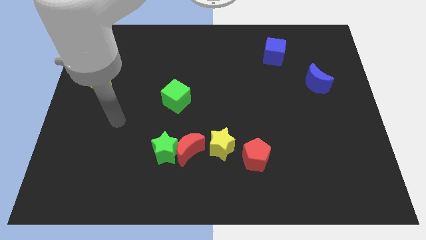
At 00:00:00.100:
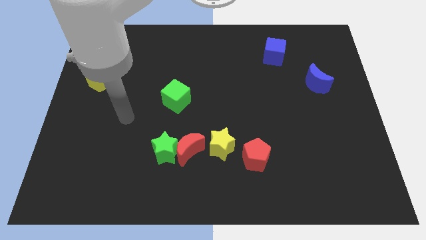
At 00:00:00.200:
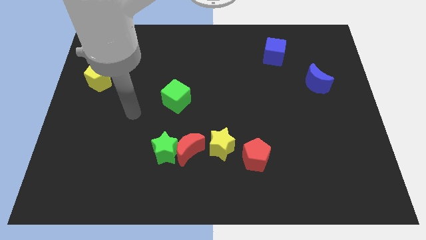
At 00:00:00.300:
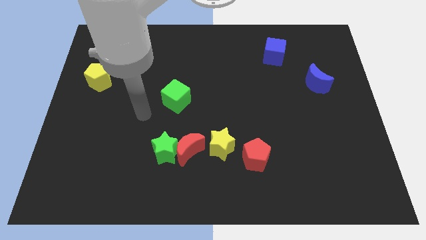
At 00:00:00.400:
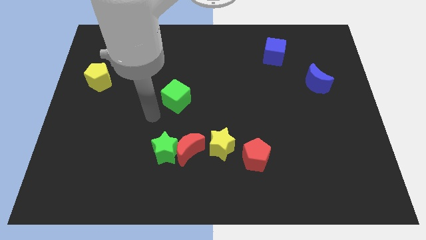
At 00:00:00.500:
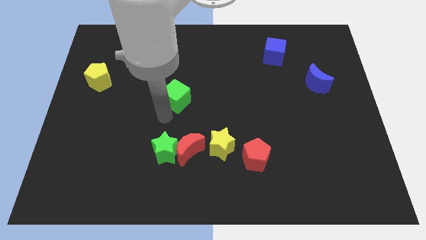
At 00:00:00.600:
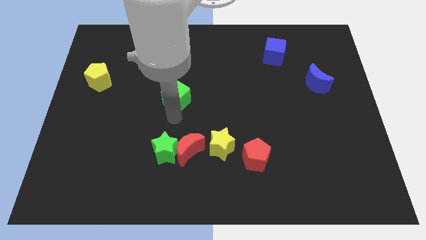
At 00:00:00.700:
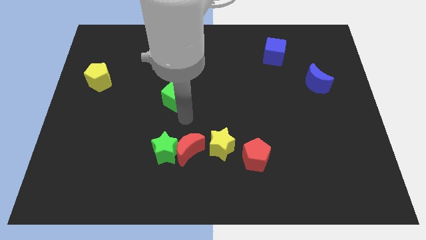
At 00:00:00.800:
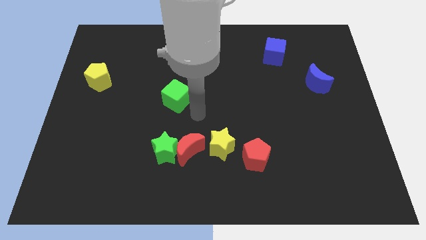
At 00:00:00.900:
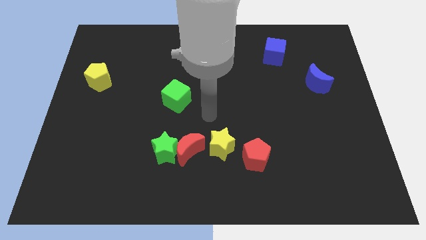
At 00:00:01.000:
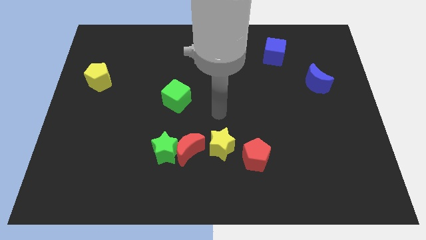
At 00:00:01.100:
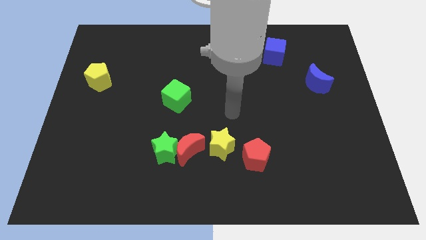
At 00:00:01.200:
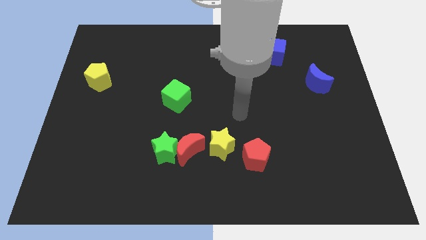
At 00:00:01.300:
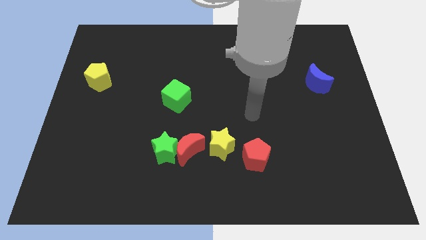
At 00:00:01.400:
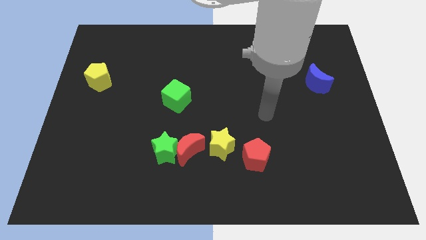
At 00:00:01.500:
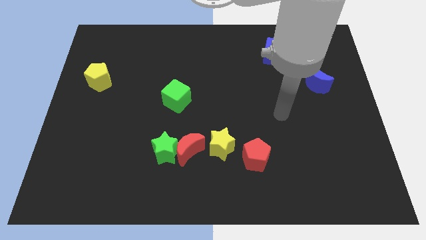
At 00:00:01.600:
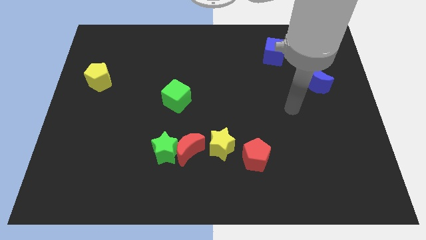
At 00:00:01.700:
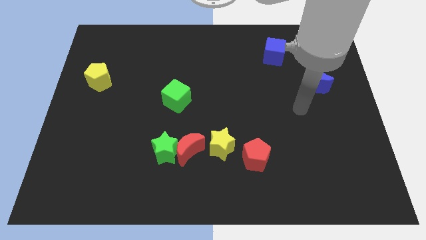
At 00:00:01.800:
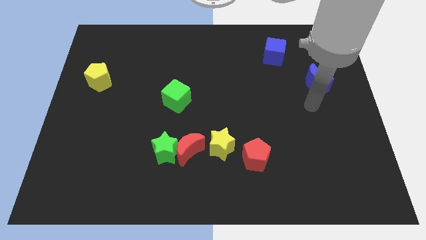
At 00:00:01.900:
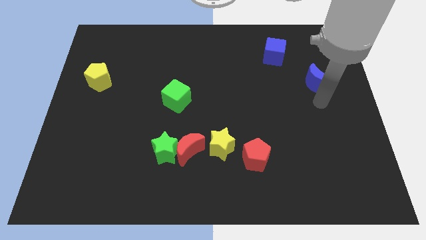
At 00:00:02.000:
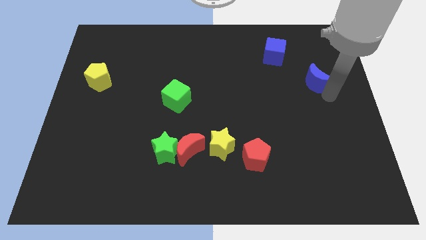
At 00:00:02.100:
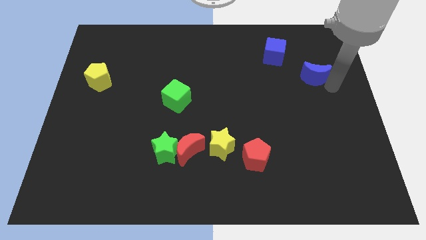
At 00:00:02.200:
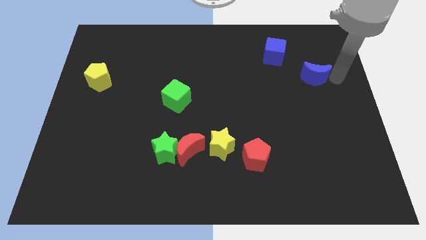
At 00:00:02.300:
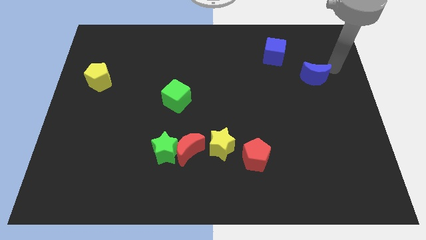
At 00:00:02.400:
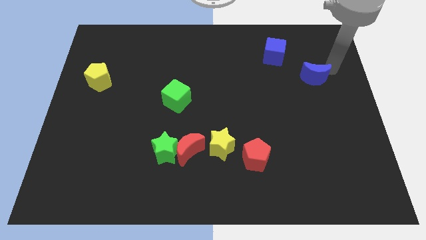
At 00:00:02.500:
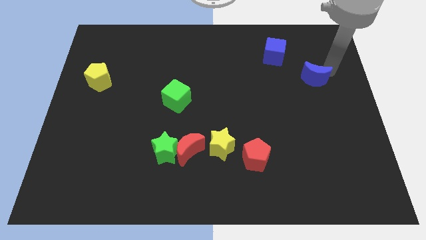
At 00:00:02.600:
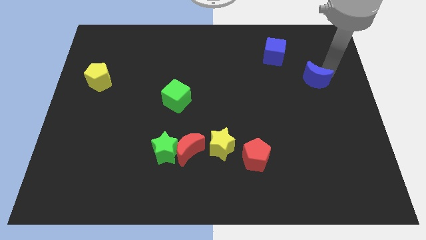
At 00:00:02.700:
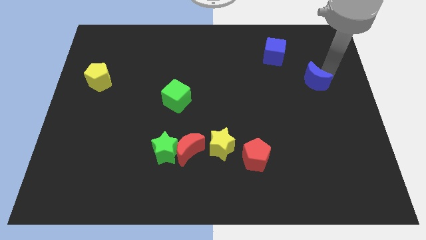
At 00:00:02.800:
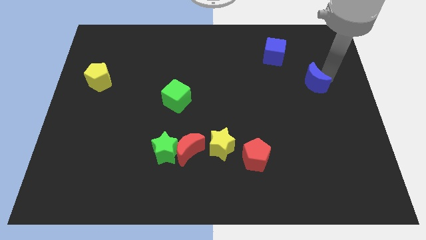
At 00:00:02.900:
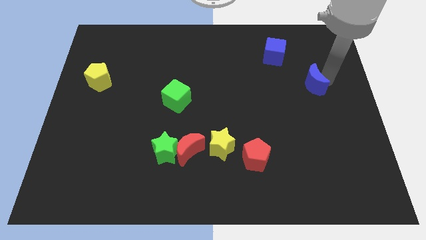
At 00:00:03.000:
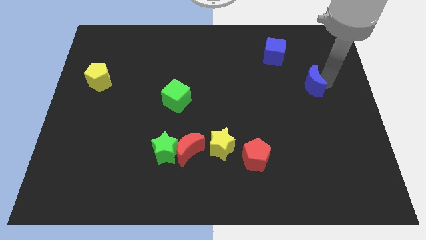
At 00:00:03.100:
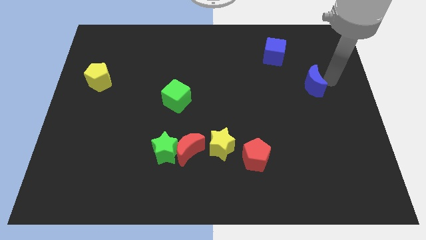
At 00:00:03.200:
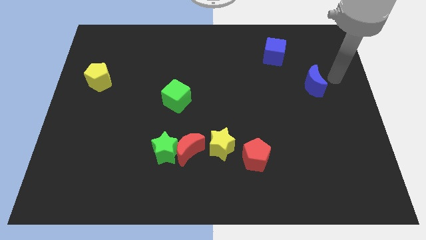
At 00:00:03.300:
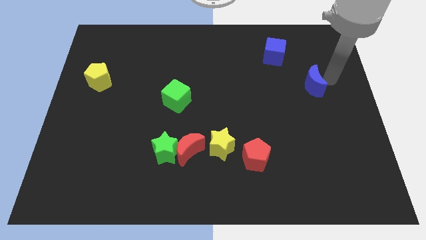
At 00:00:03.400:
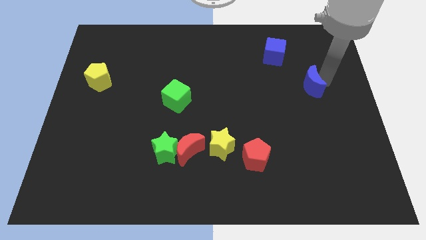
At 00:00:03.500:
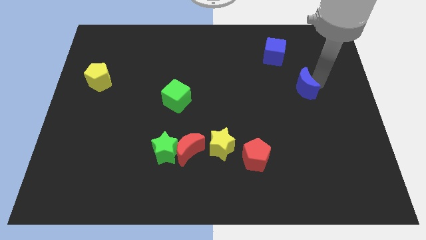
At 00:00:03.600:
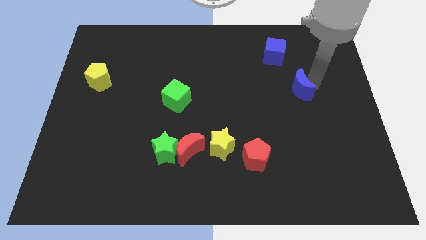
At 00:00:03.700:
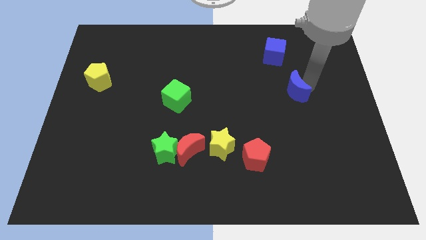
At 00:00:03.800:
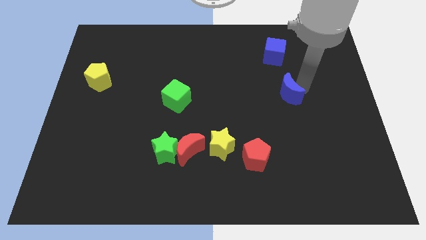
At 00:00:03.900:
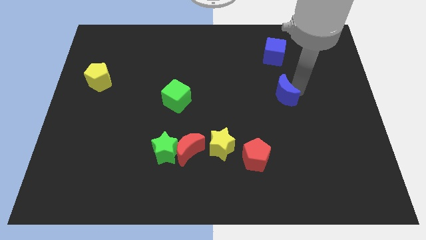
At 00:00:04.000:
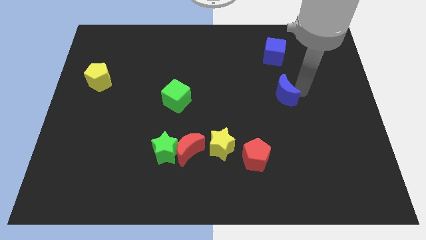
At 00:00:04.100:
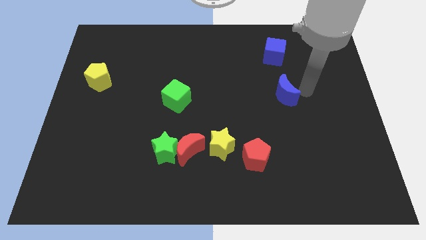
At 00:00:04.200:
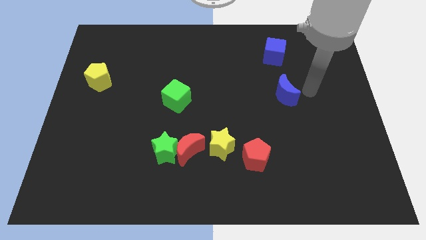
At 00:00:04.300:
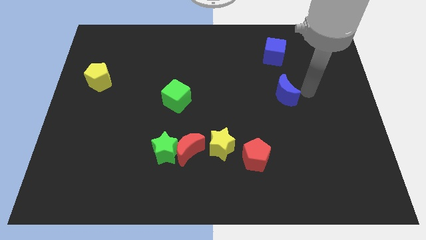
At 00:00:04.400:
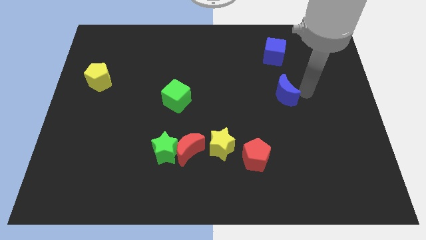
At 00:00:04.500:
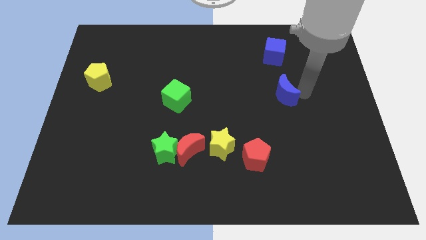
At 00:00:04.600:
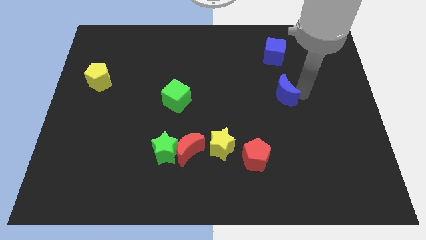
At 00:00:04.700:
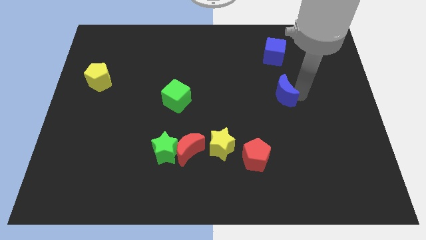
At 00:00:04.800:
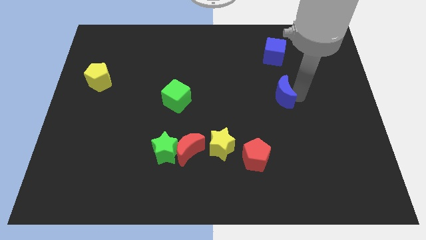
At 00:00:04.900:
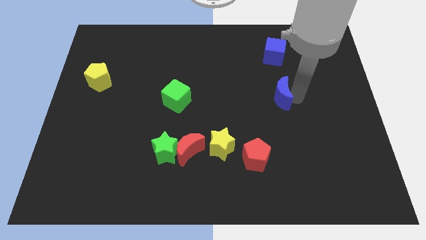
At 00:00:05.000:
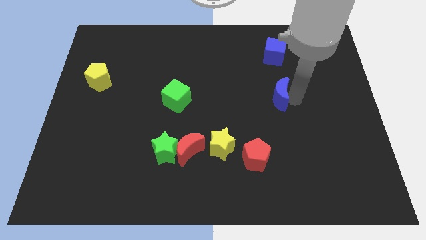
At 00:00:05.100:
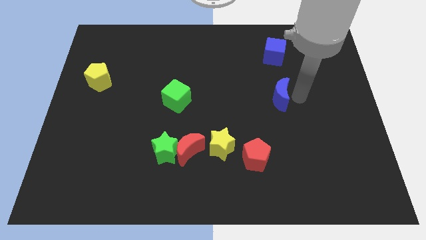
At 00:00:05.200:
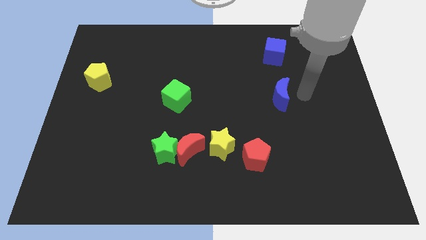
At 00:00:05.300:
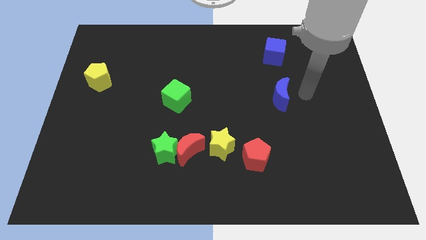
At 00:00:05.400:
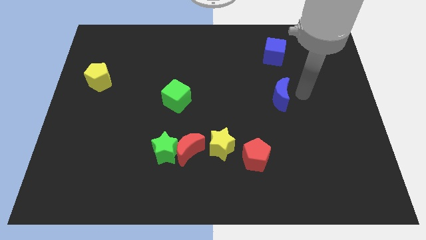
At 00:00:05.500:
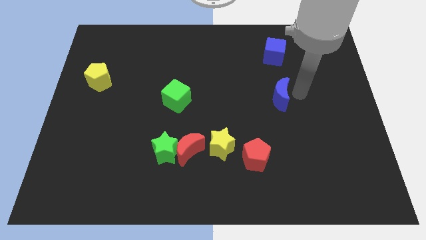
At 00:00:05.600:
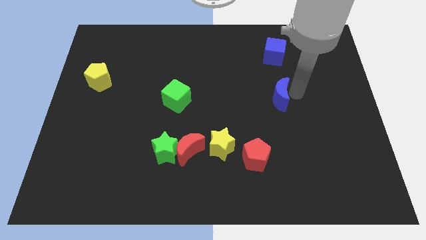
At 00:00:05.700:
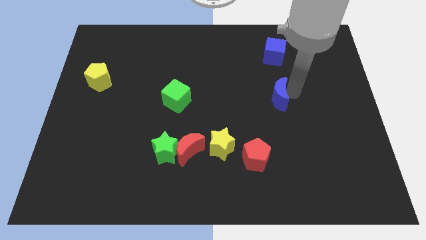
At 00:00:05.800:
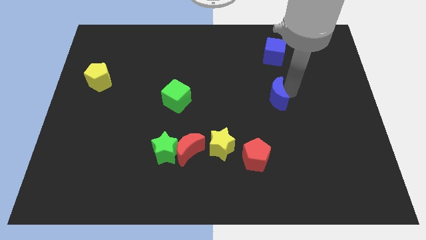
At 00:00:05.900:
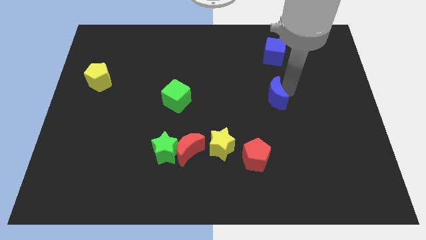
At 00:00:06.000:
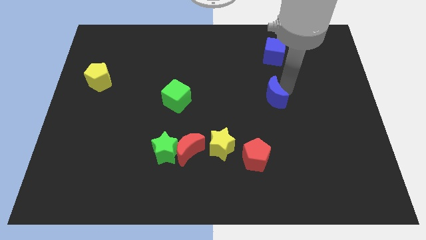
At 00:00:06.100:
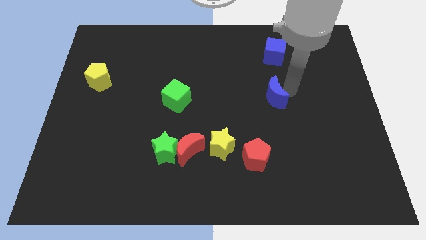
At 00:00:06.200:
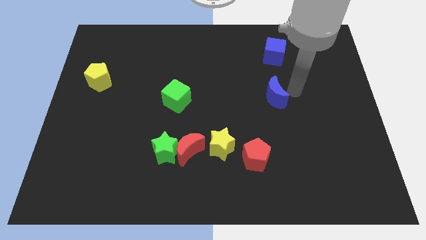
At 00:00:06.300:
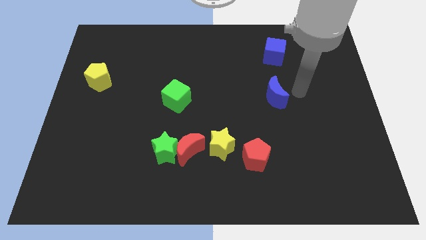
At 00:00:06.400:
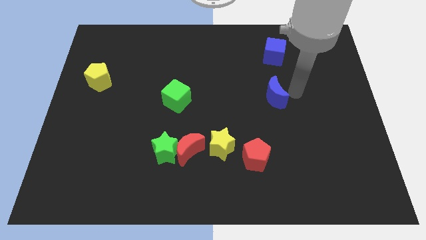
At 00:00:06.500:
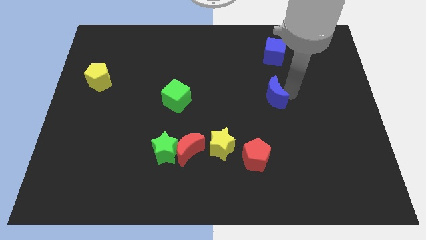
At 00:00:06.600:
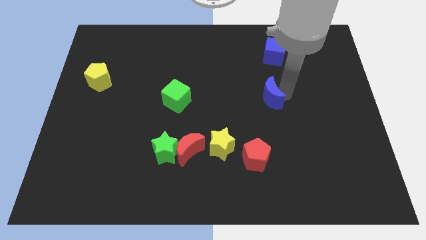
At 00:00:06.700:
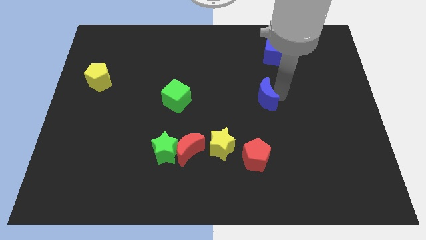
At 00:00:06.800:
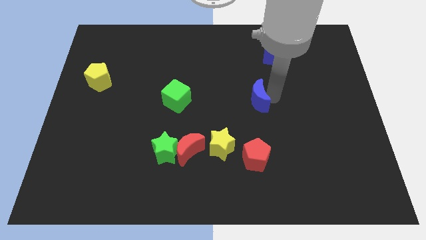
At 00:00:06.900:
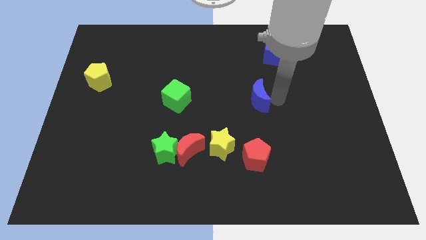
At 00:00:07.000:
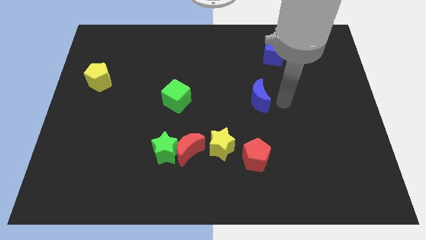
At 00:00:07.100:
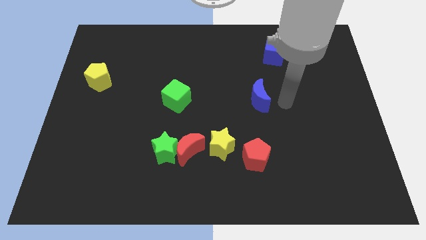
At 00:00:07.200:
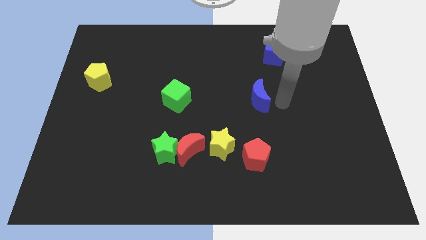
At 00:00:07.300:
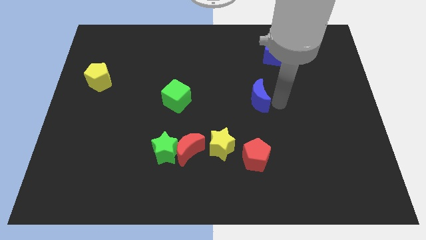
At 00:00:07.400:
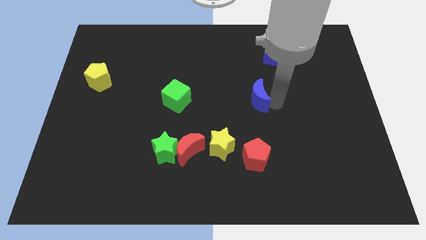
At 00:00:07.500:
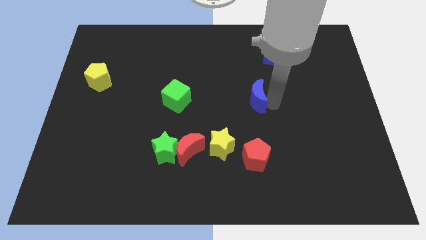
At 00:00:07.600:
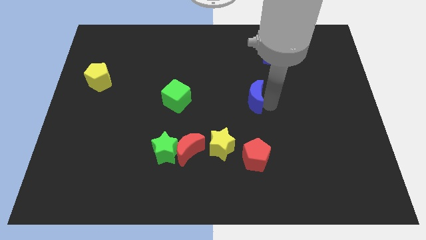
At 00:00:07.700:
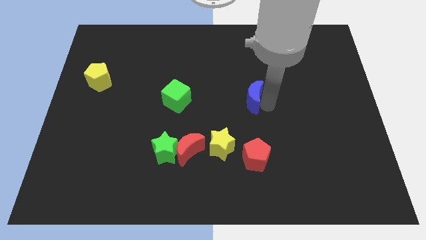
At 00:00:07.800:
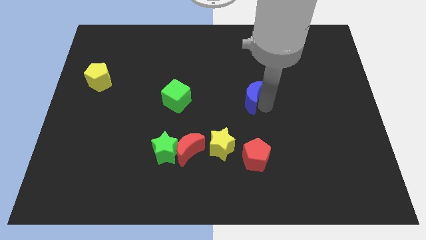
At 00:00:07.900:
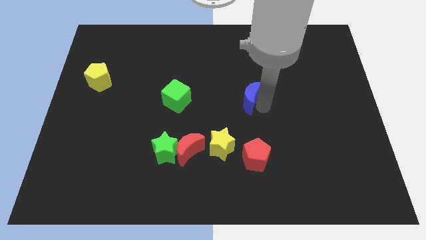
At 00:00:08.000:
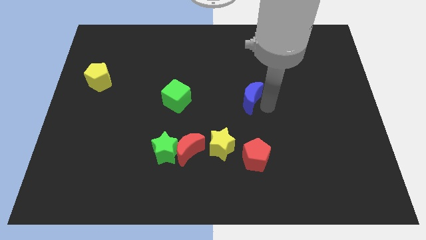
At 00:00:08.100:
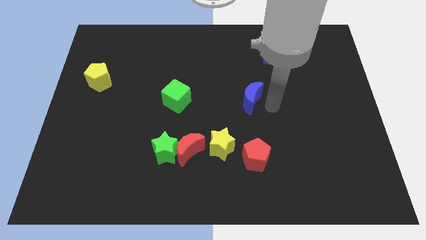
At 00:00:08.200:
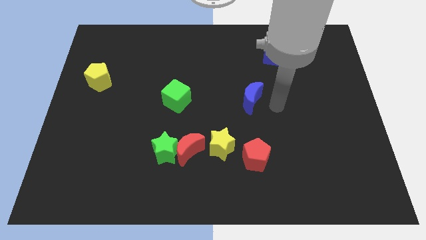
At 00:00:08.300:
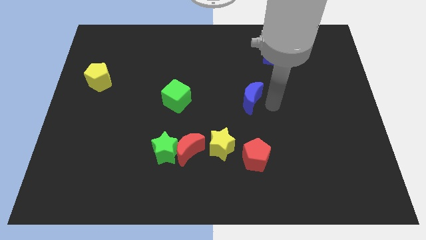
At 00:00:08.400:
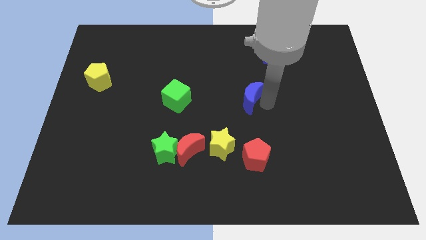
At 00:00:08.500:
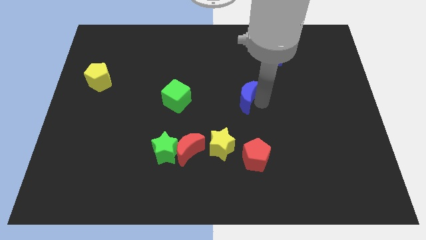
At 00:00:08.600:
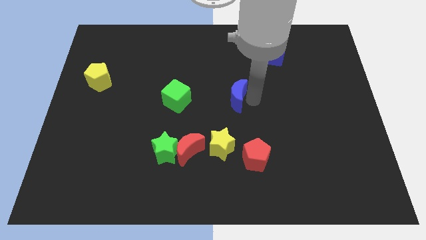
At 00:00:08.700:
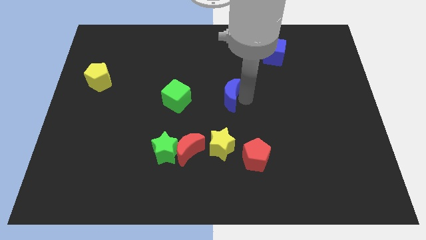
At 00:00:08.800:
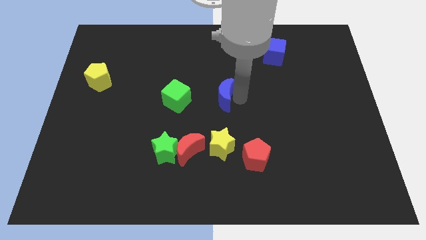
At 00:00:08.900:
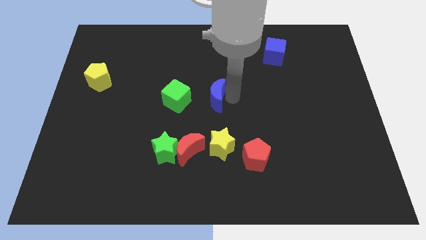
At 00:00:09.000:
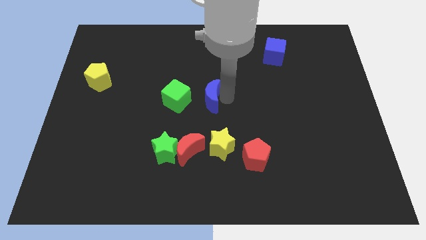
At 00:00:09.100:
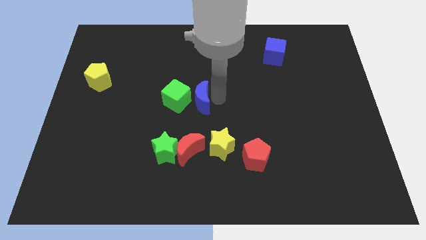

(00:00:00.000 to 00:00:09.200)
move the blue moon to the green cube
